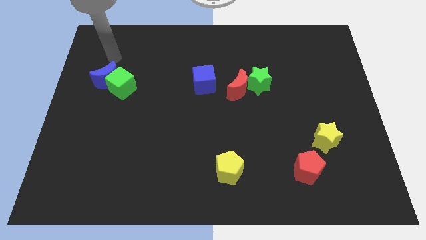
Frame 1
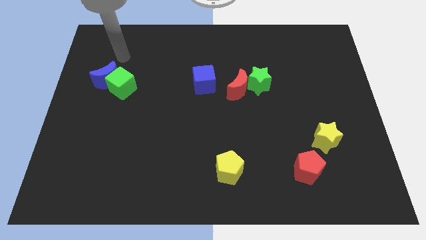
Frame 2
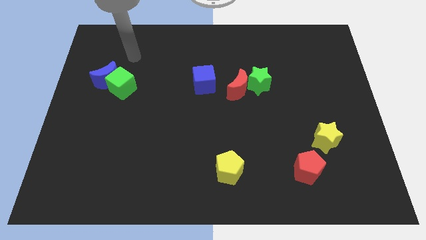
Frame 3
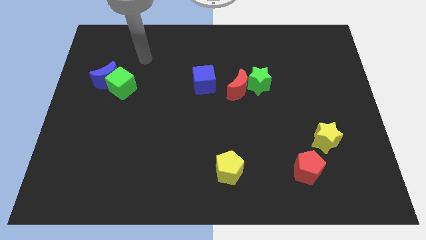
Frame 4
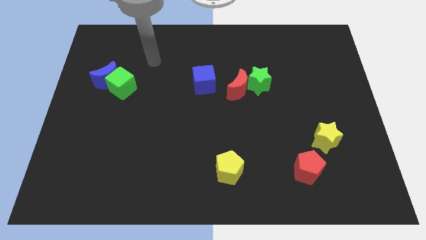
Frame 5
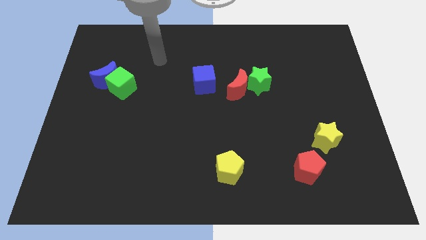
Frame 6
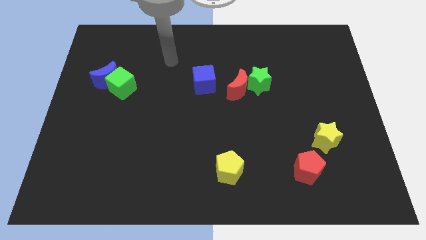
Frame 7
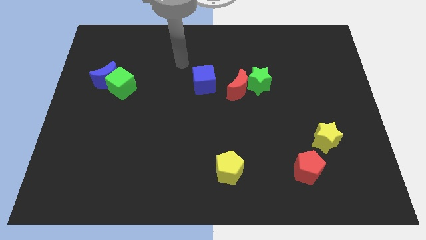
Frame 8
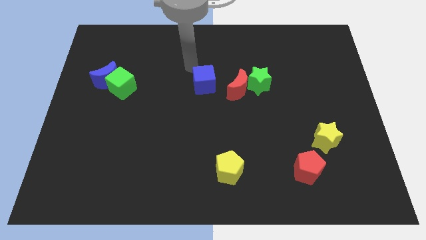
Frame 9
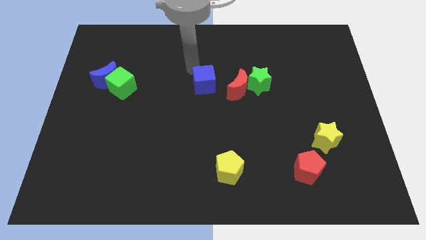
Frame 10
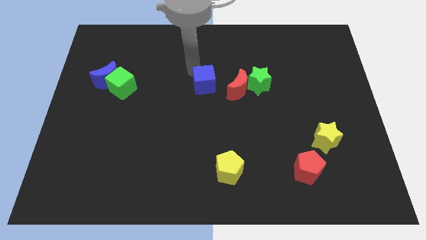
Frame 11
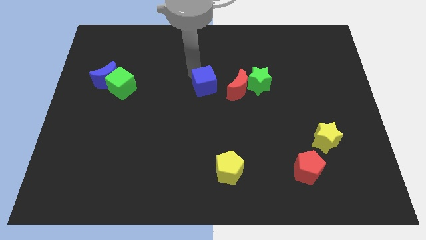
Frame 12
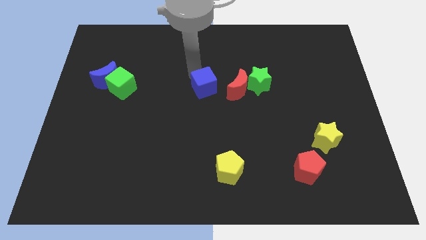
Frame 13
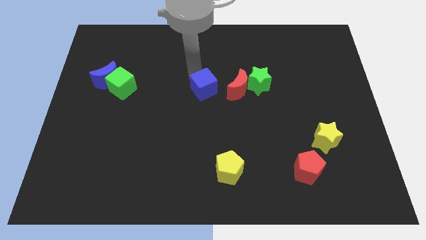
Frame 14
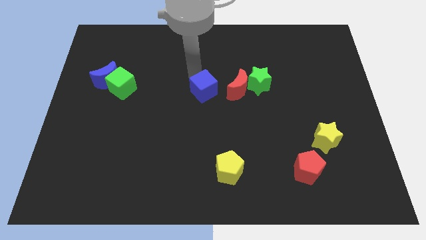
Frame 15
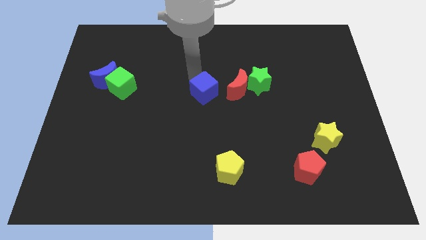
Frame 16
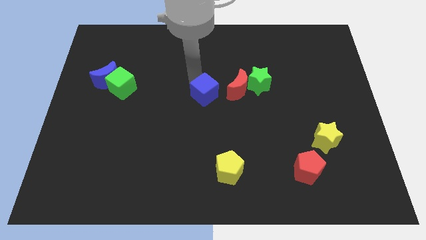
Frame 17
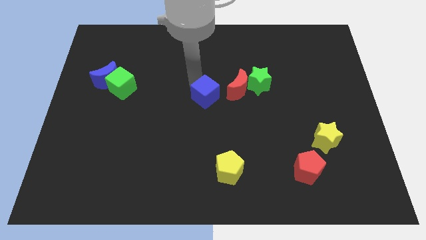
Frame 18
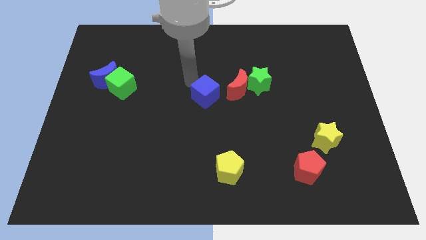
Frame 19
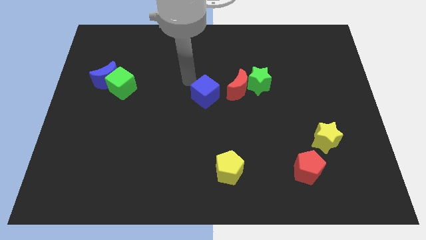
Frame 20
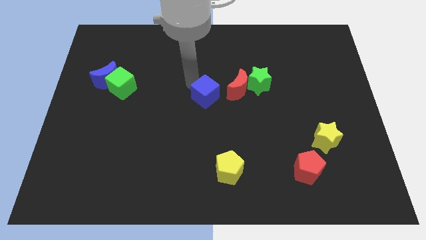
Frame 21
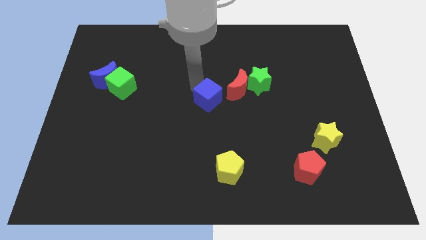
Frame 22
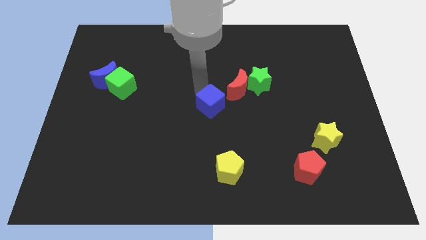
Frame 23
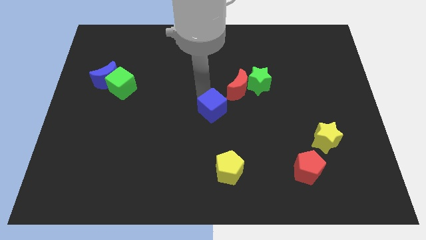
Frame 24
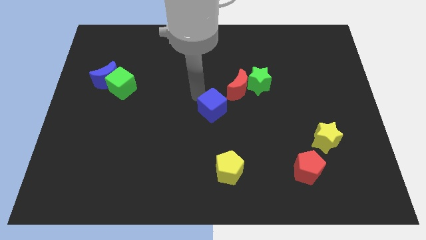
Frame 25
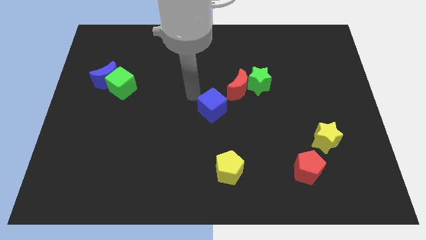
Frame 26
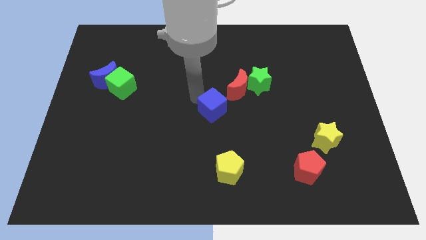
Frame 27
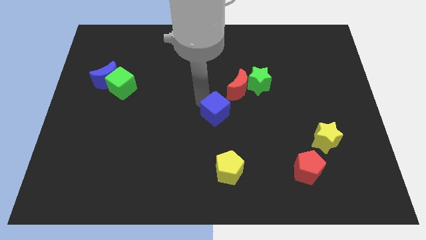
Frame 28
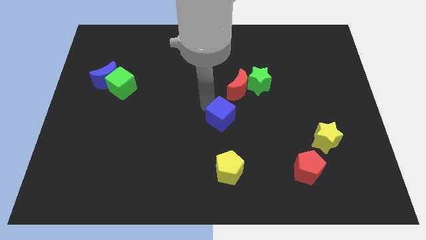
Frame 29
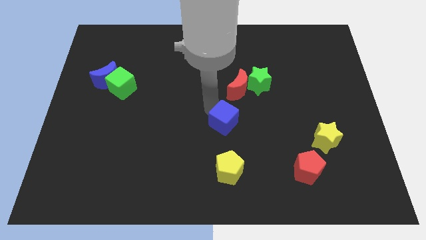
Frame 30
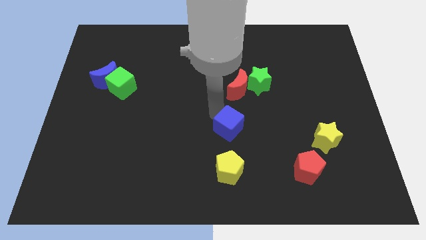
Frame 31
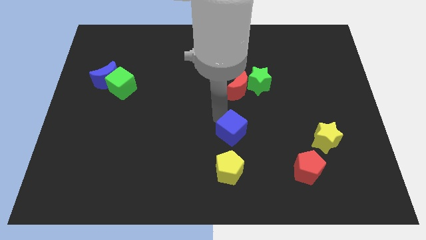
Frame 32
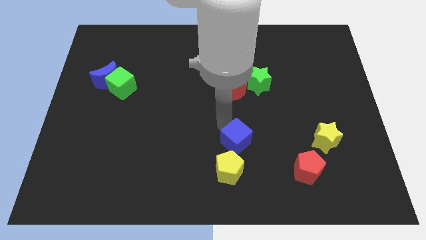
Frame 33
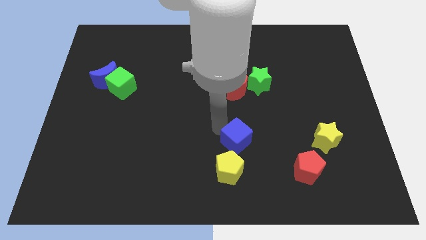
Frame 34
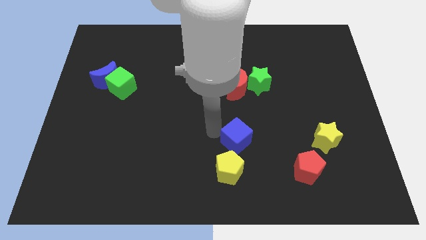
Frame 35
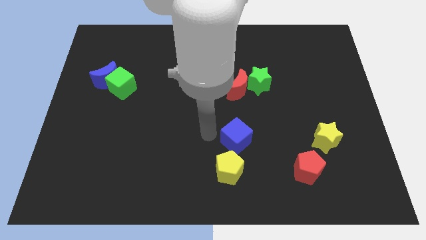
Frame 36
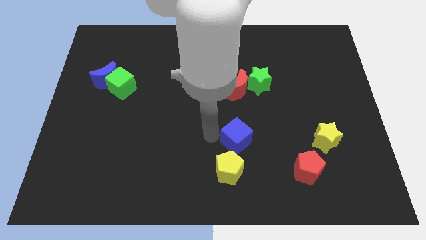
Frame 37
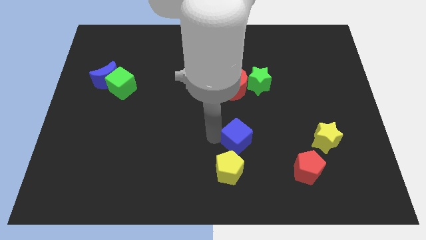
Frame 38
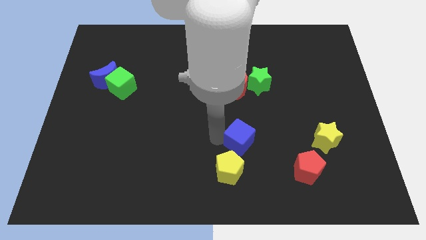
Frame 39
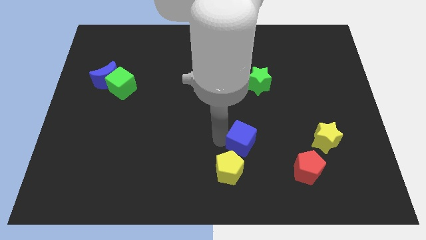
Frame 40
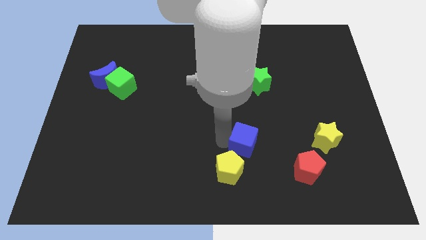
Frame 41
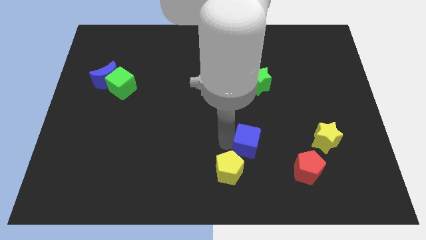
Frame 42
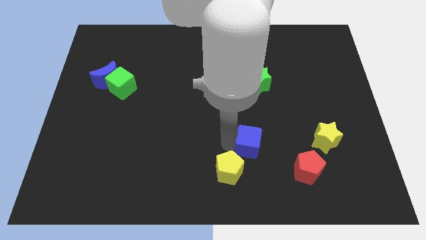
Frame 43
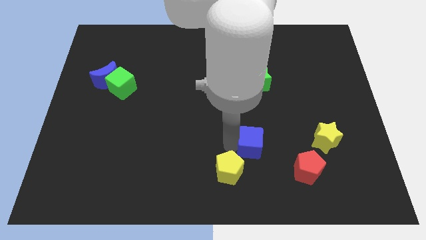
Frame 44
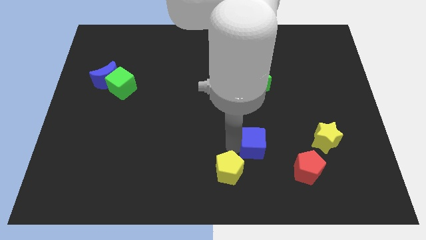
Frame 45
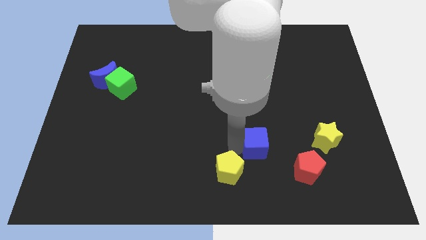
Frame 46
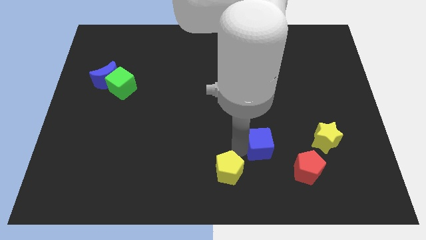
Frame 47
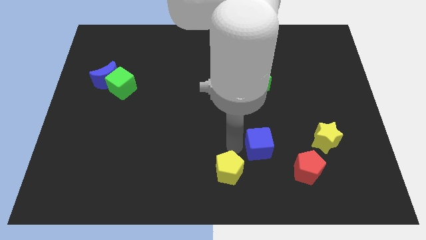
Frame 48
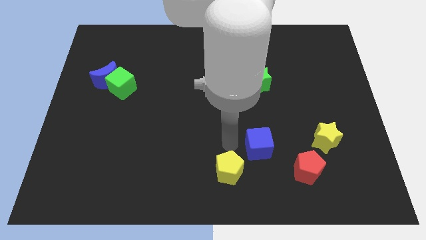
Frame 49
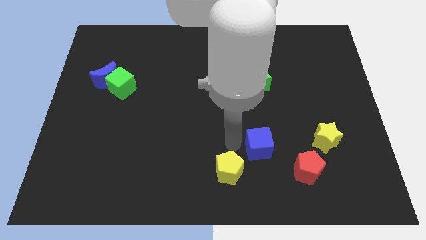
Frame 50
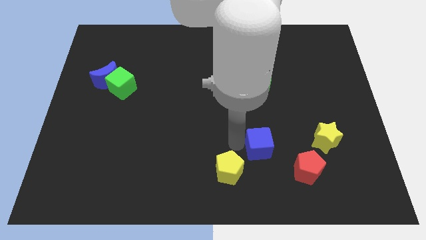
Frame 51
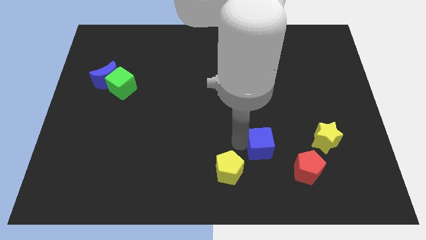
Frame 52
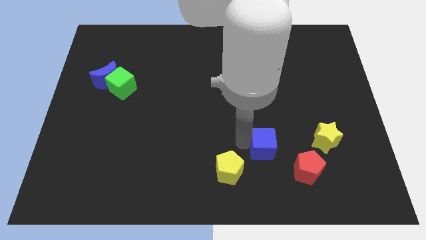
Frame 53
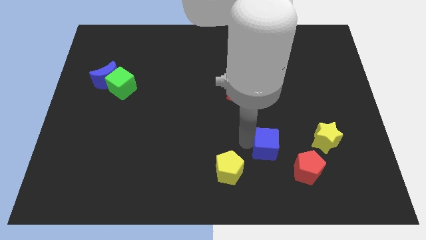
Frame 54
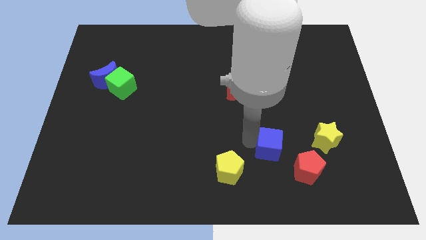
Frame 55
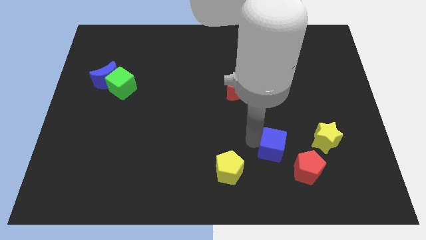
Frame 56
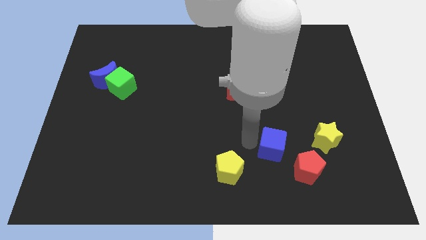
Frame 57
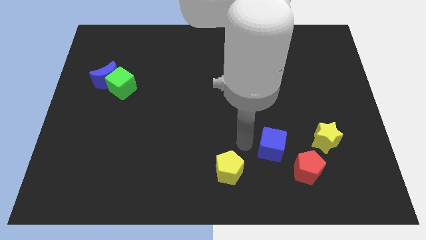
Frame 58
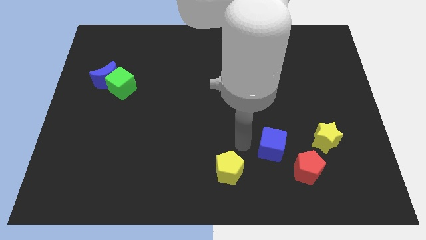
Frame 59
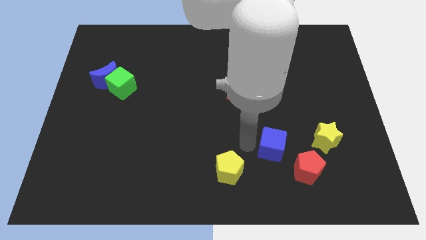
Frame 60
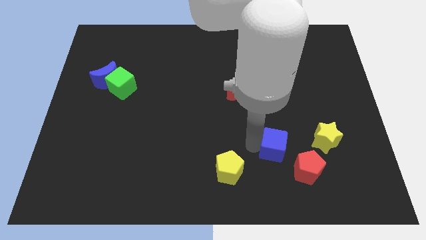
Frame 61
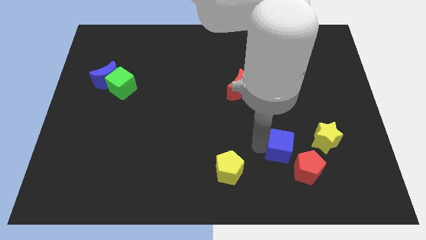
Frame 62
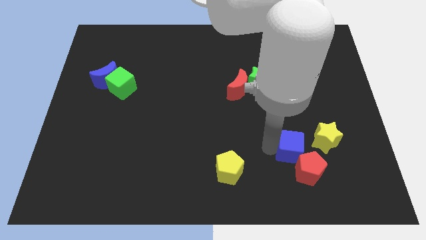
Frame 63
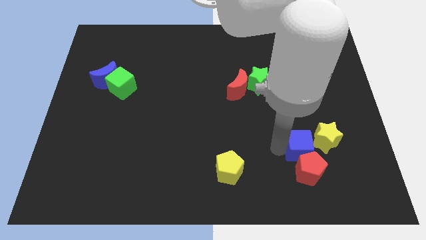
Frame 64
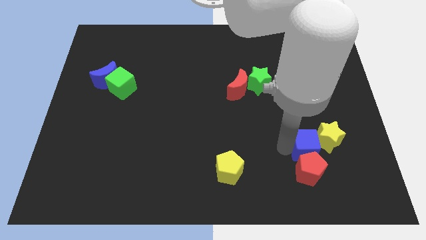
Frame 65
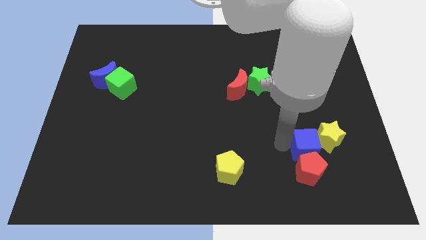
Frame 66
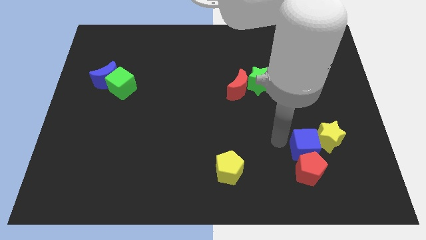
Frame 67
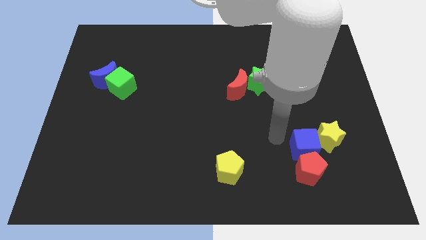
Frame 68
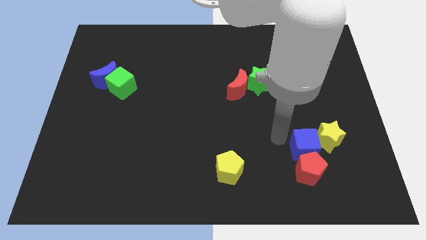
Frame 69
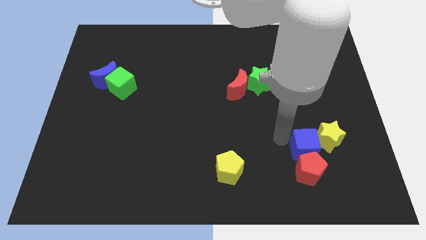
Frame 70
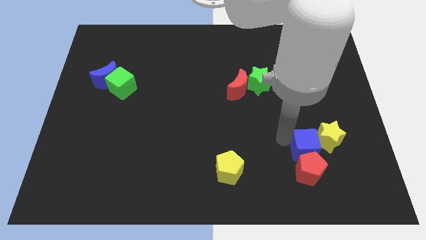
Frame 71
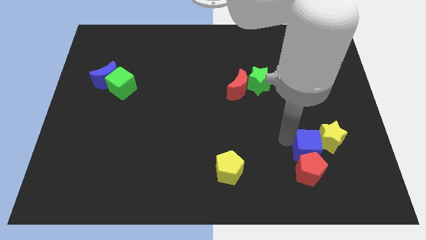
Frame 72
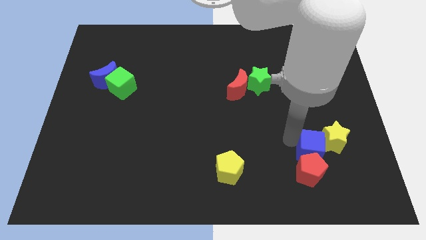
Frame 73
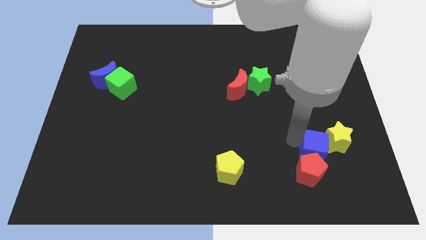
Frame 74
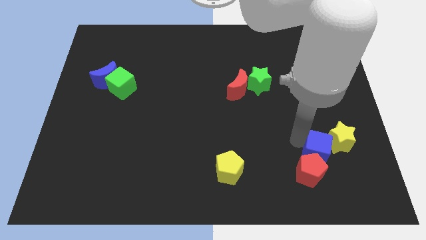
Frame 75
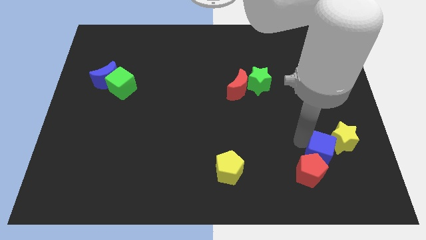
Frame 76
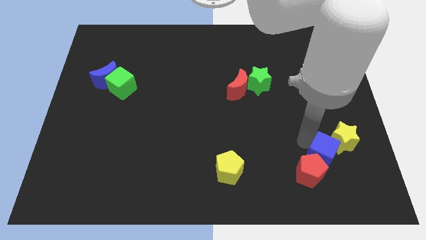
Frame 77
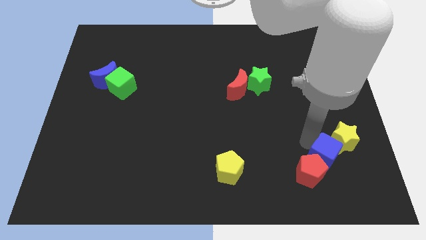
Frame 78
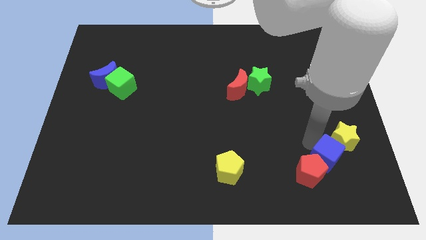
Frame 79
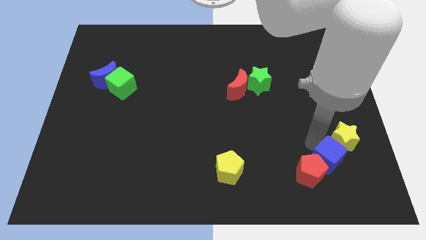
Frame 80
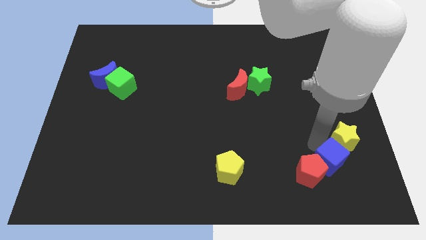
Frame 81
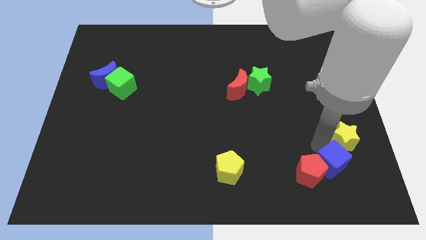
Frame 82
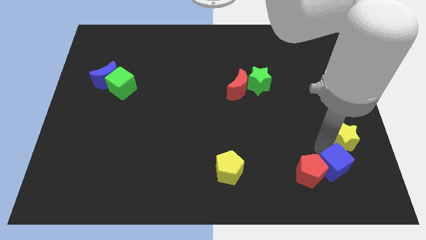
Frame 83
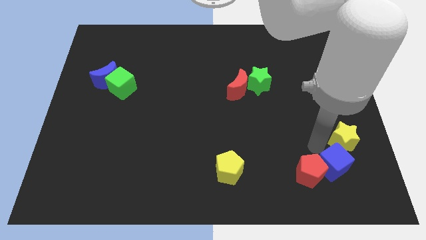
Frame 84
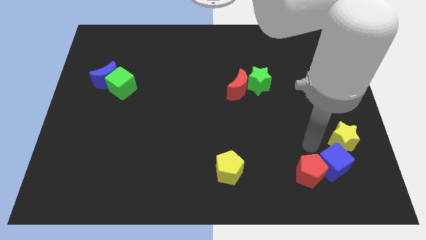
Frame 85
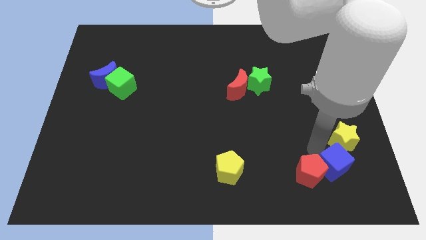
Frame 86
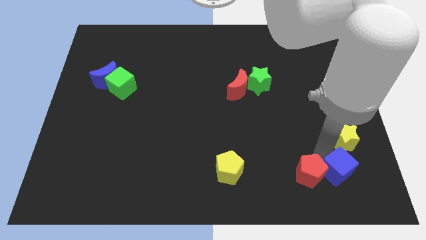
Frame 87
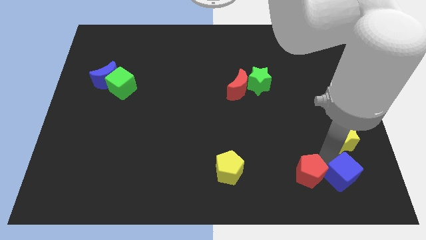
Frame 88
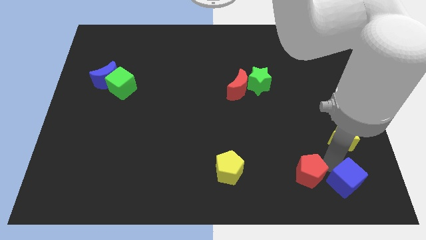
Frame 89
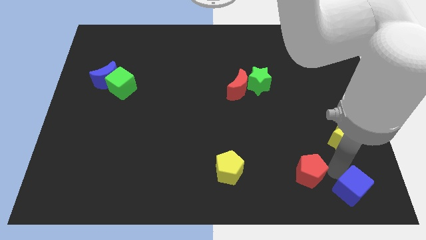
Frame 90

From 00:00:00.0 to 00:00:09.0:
put the blue cube to the bottom right corner
